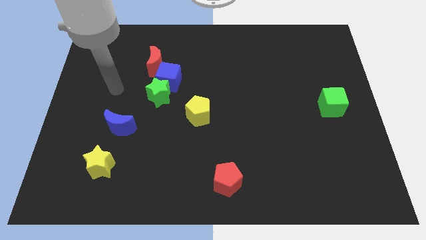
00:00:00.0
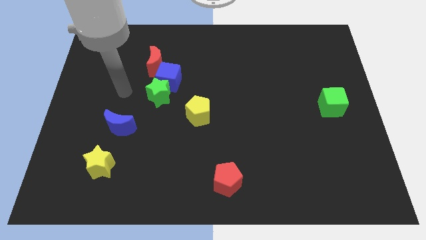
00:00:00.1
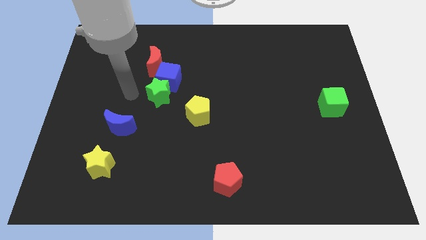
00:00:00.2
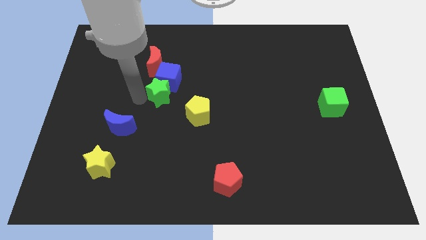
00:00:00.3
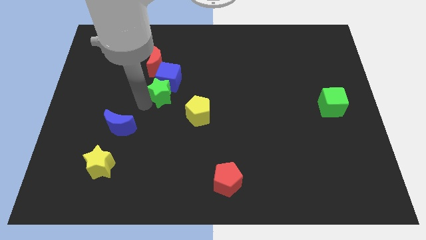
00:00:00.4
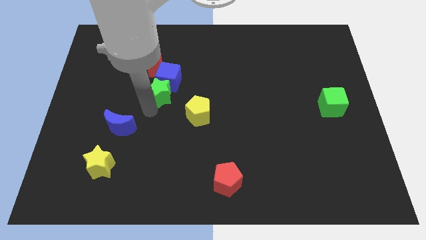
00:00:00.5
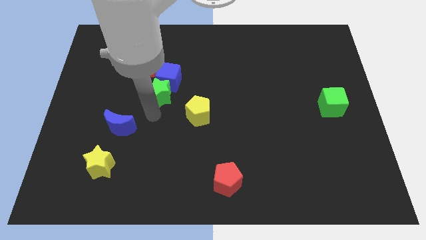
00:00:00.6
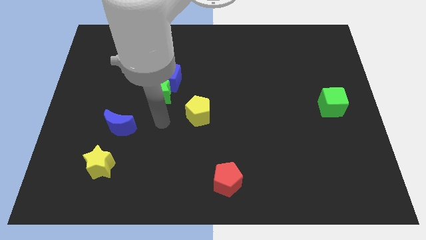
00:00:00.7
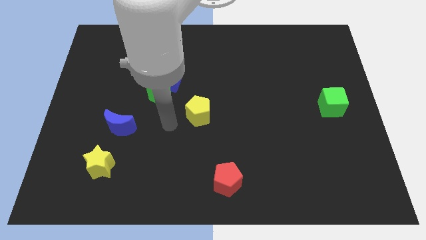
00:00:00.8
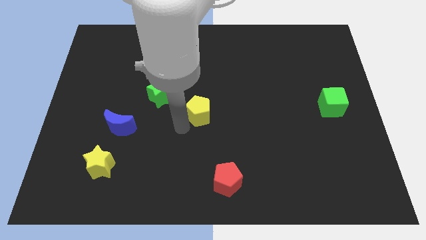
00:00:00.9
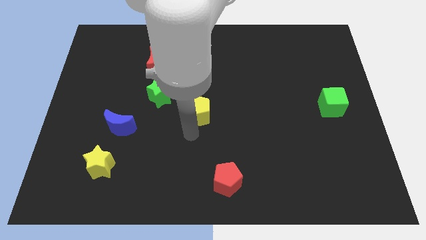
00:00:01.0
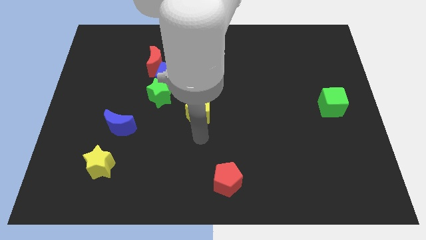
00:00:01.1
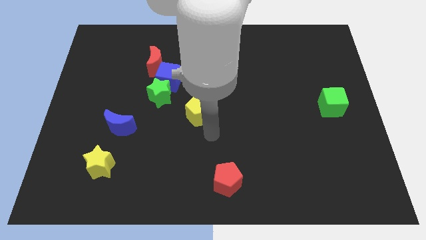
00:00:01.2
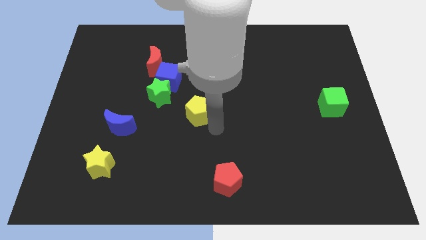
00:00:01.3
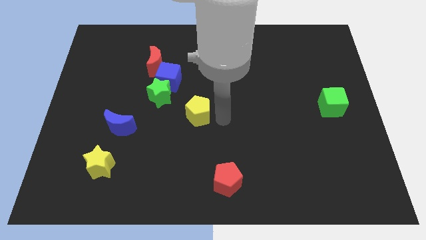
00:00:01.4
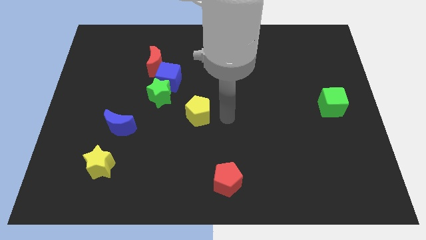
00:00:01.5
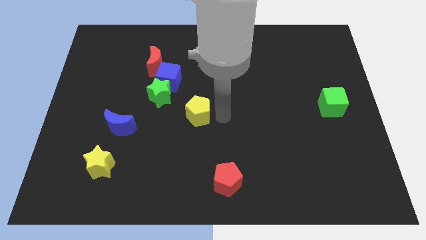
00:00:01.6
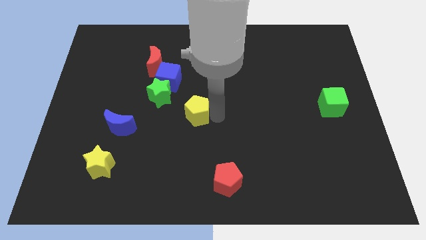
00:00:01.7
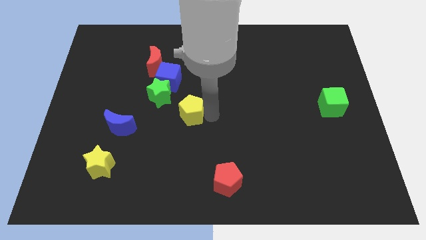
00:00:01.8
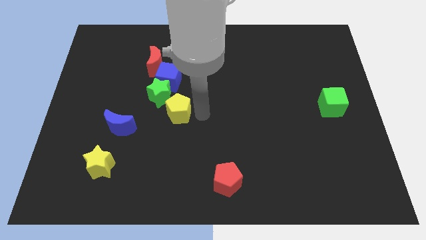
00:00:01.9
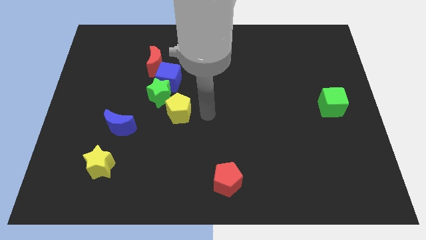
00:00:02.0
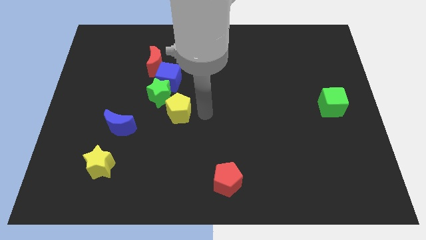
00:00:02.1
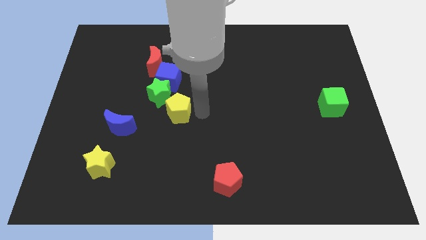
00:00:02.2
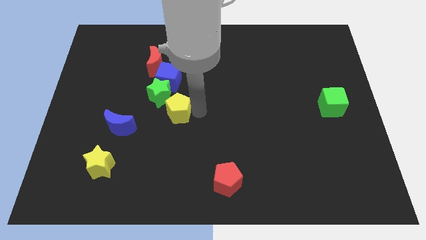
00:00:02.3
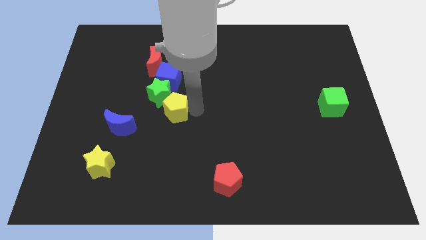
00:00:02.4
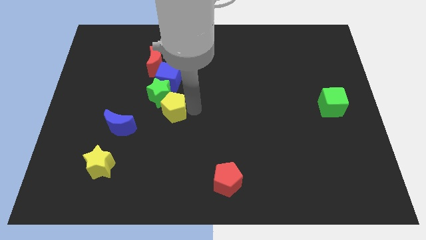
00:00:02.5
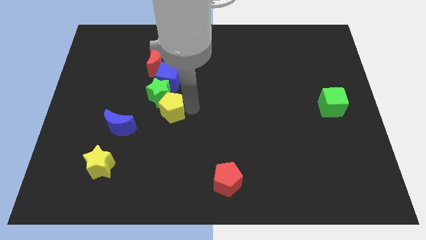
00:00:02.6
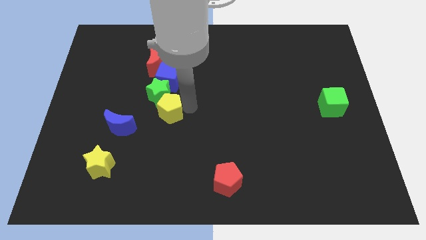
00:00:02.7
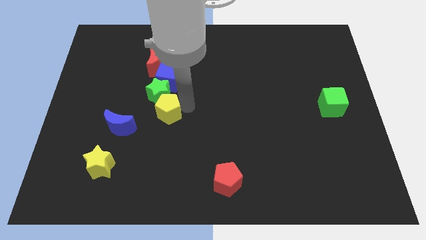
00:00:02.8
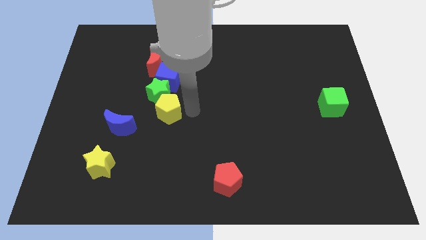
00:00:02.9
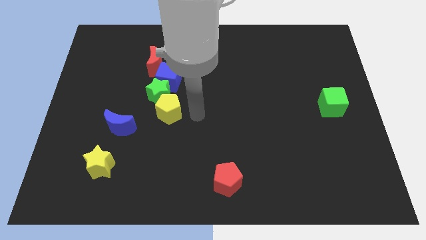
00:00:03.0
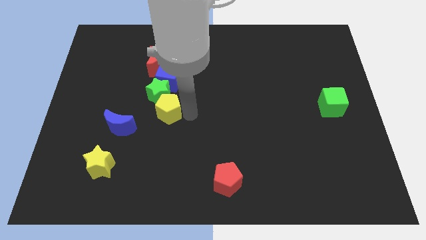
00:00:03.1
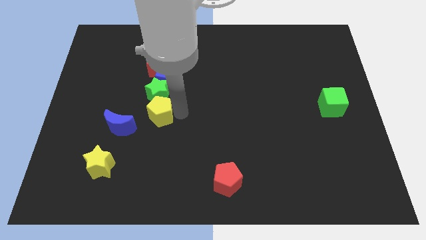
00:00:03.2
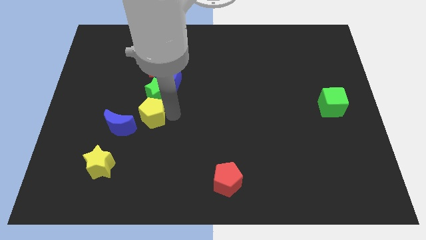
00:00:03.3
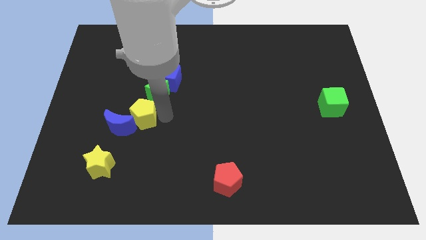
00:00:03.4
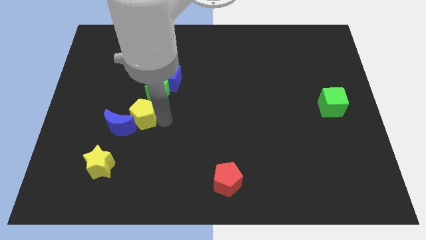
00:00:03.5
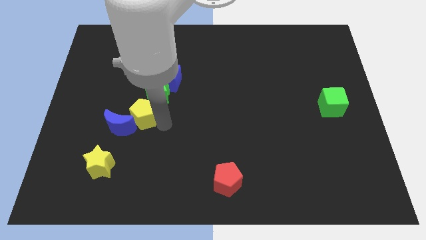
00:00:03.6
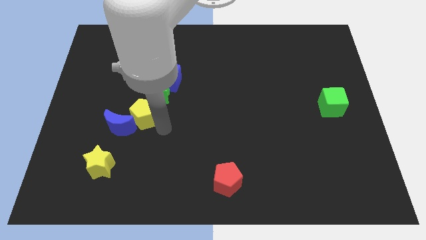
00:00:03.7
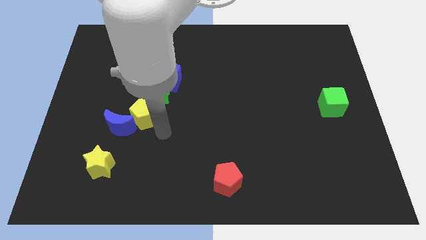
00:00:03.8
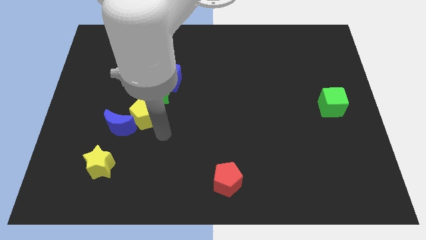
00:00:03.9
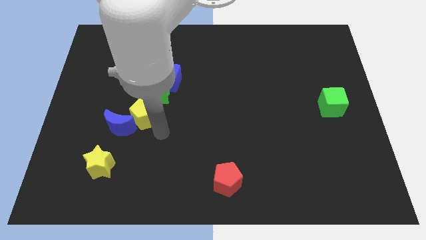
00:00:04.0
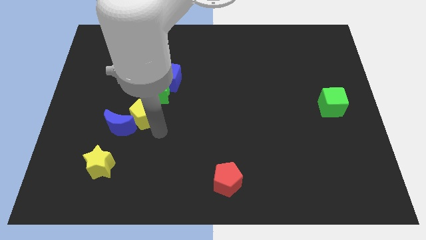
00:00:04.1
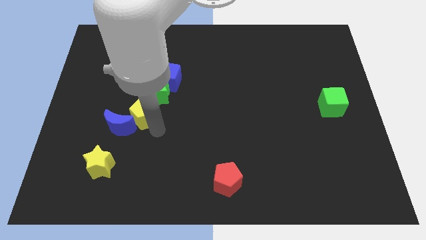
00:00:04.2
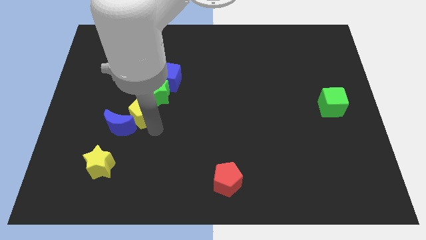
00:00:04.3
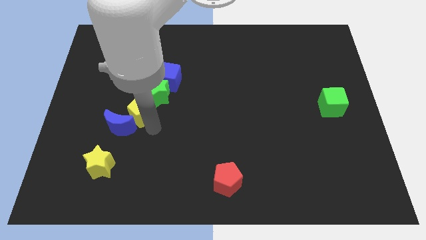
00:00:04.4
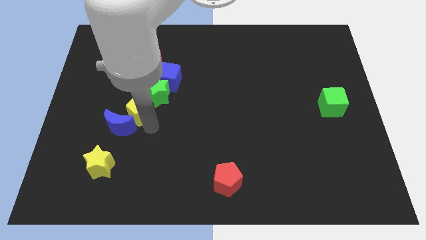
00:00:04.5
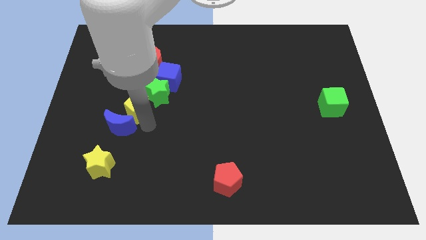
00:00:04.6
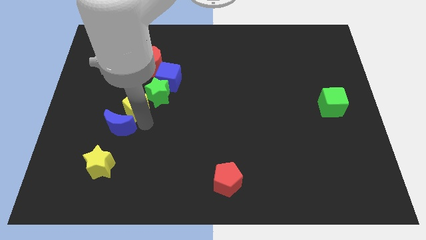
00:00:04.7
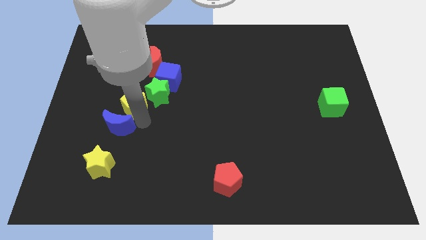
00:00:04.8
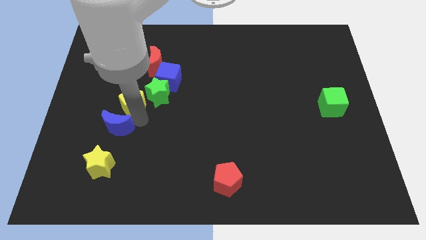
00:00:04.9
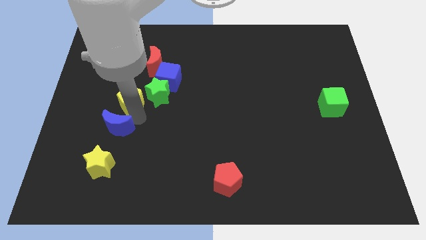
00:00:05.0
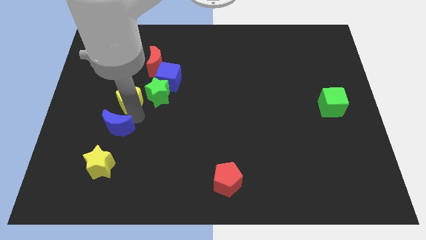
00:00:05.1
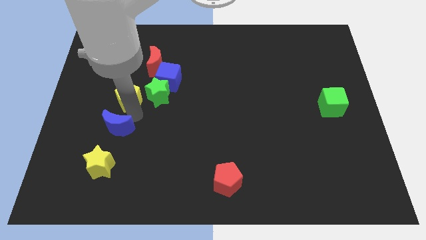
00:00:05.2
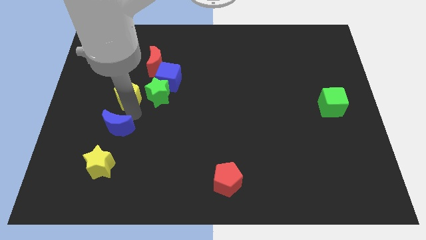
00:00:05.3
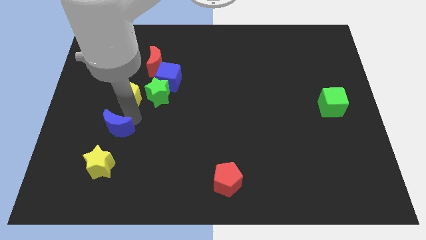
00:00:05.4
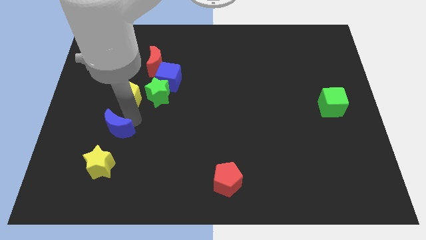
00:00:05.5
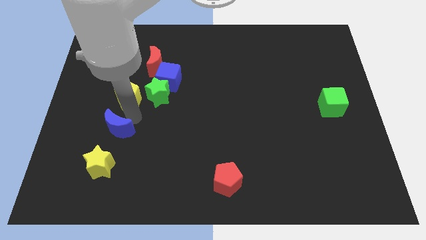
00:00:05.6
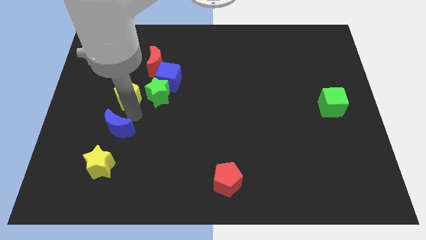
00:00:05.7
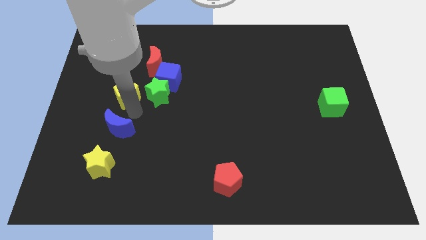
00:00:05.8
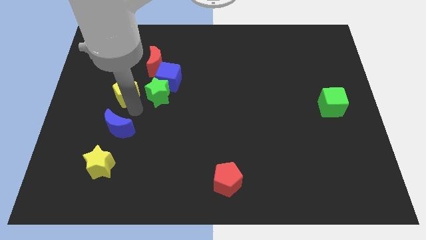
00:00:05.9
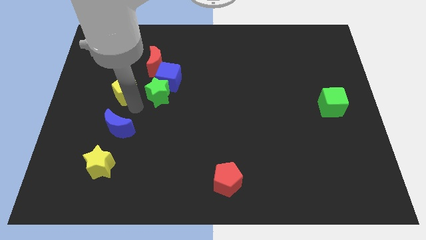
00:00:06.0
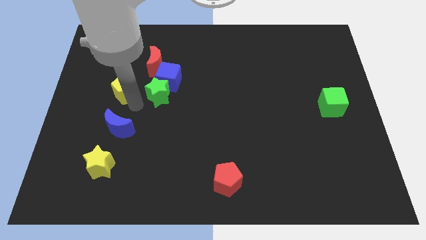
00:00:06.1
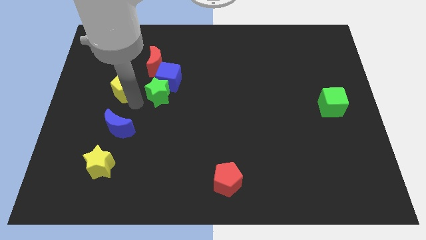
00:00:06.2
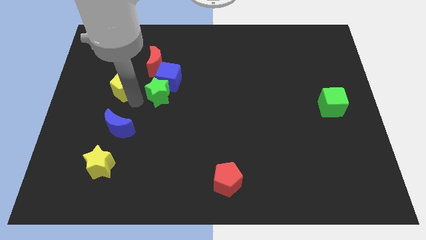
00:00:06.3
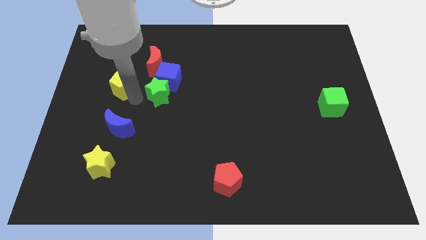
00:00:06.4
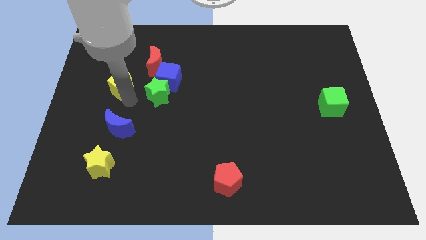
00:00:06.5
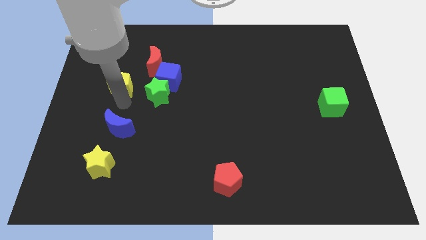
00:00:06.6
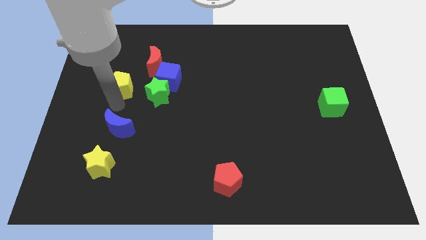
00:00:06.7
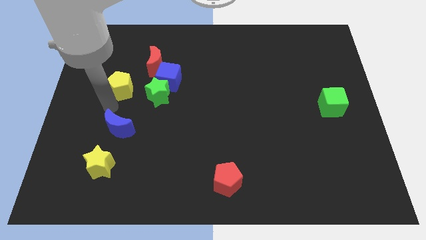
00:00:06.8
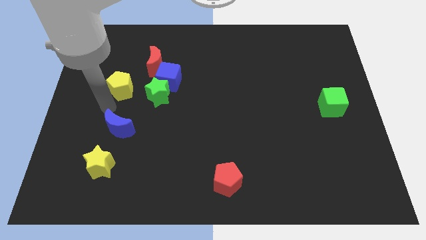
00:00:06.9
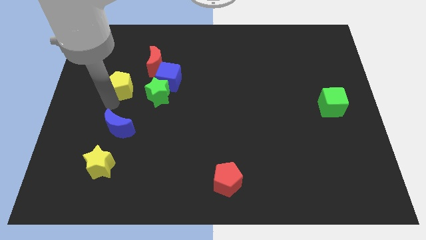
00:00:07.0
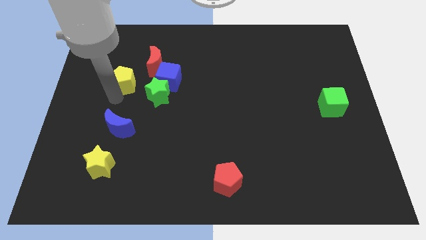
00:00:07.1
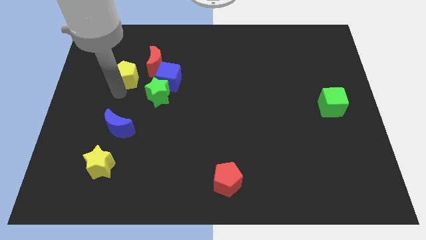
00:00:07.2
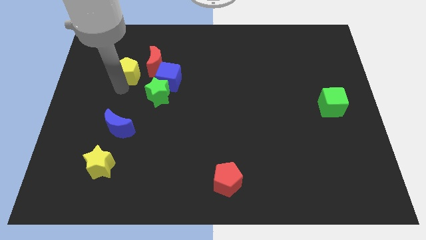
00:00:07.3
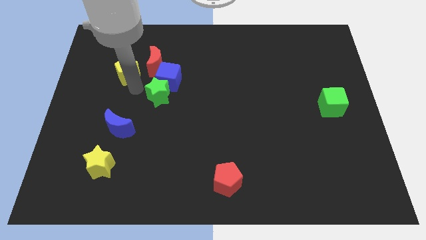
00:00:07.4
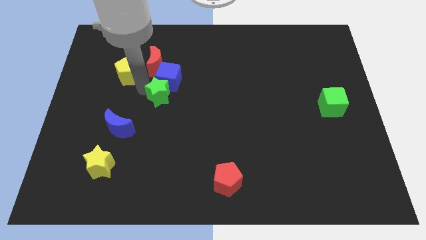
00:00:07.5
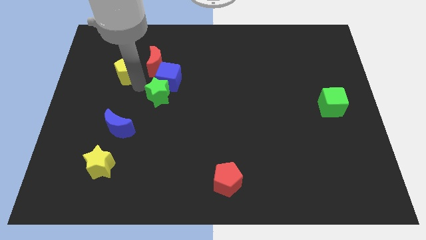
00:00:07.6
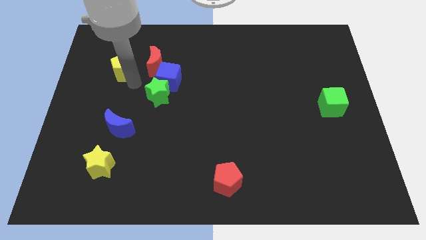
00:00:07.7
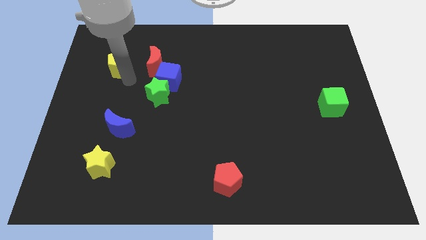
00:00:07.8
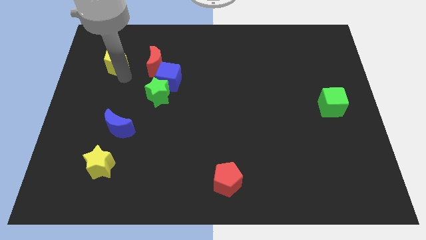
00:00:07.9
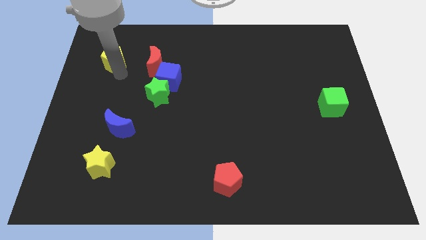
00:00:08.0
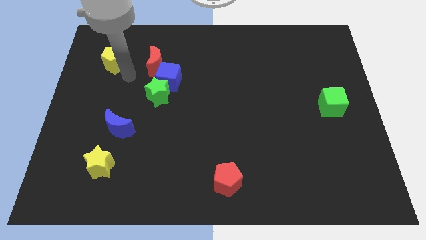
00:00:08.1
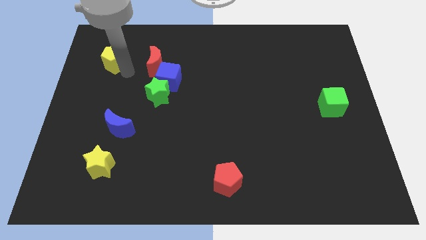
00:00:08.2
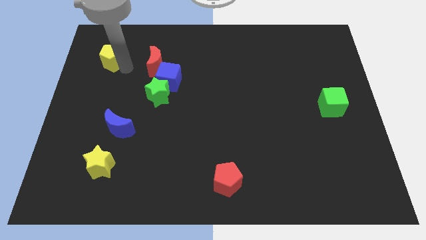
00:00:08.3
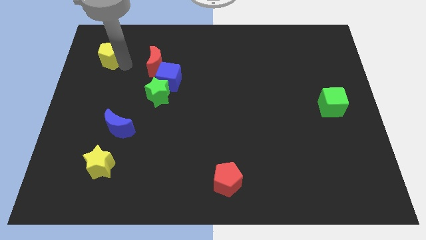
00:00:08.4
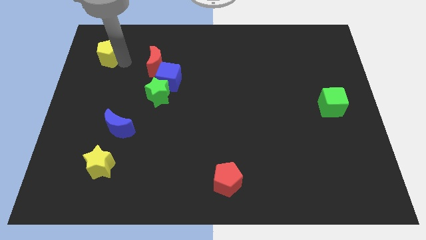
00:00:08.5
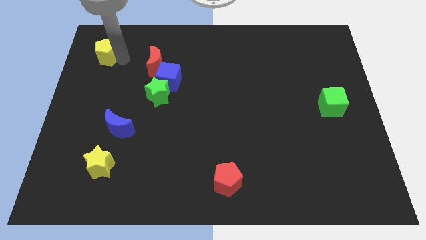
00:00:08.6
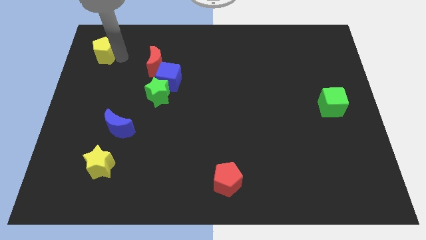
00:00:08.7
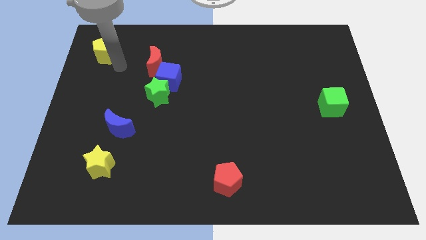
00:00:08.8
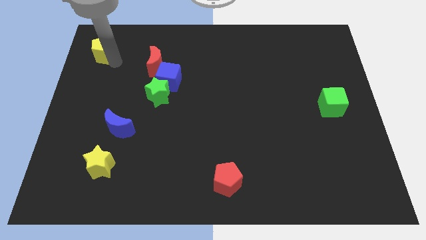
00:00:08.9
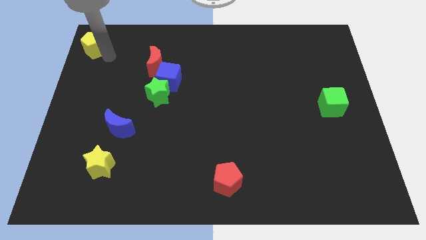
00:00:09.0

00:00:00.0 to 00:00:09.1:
move the yellow pentagon to the top left
